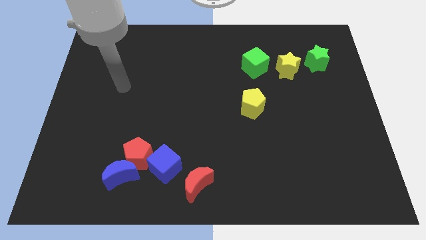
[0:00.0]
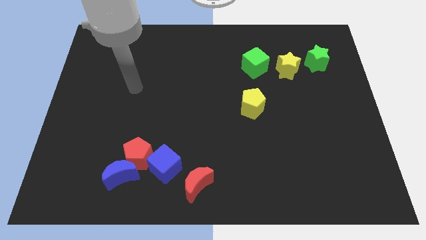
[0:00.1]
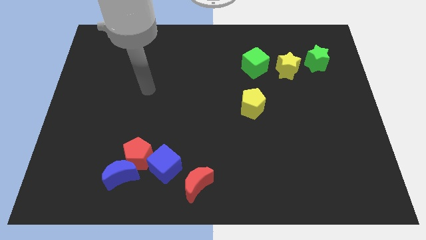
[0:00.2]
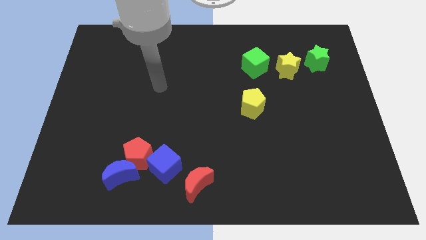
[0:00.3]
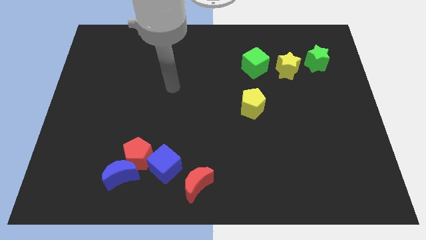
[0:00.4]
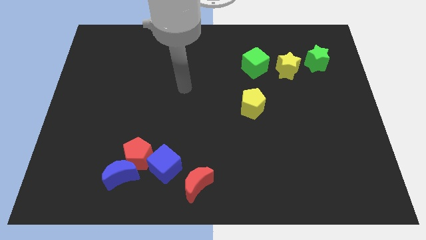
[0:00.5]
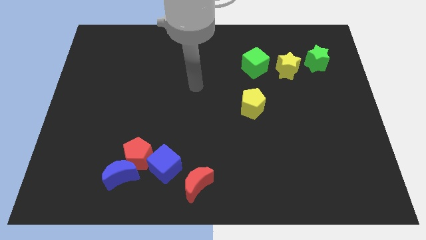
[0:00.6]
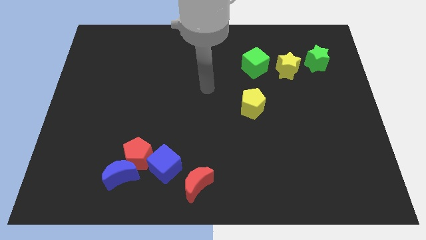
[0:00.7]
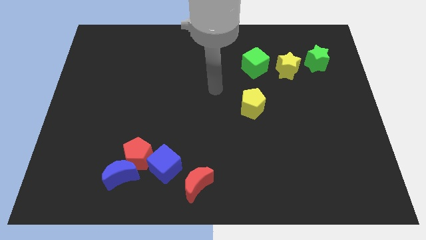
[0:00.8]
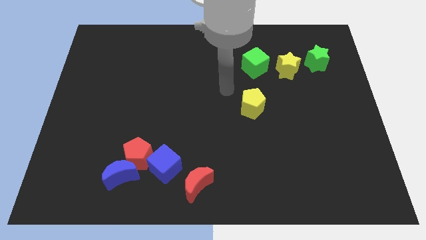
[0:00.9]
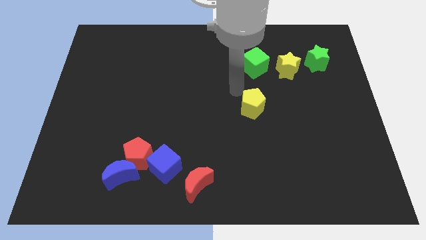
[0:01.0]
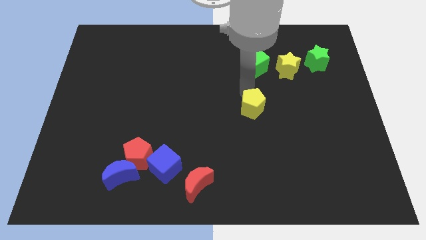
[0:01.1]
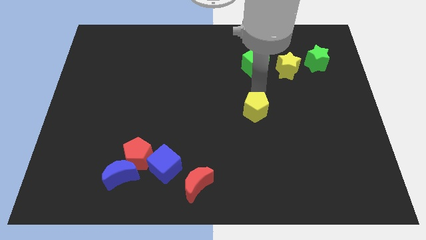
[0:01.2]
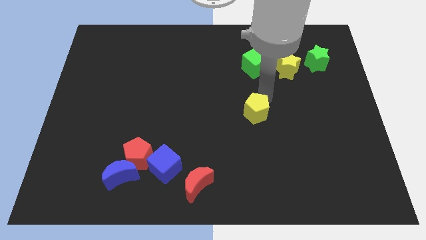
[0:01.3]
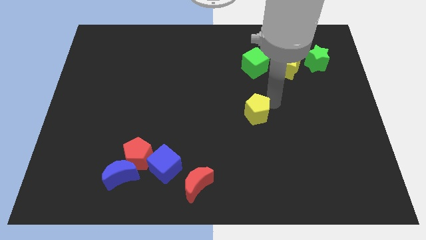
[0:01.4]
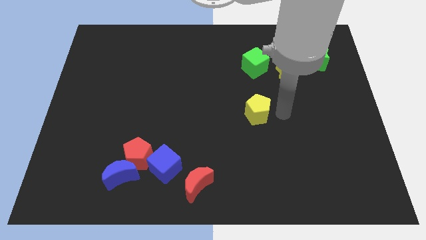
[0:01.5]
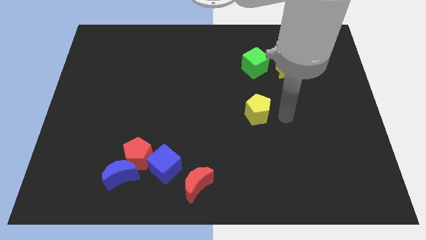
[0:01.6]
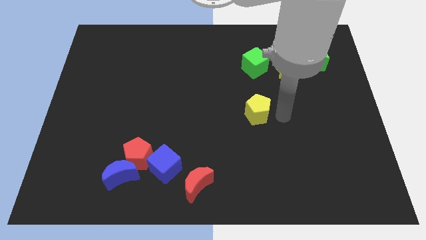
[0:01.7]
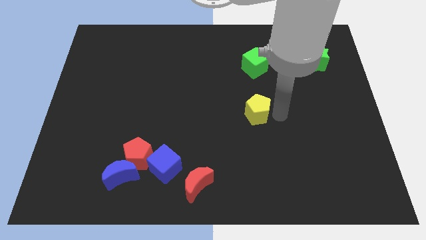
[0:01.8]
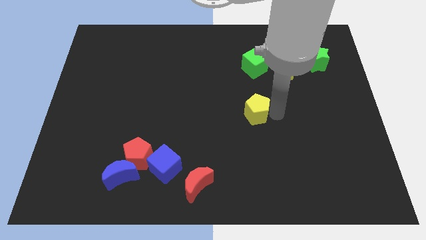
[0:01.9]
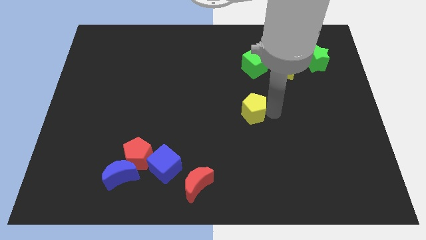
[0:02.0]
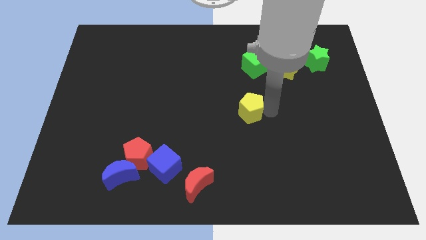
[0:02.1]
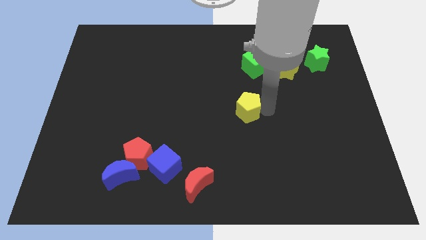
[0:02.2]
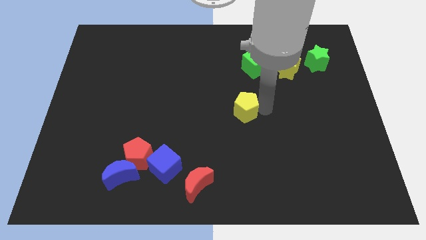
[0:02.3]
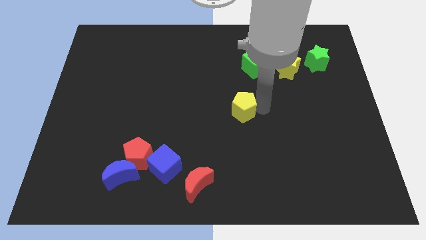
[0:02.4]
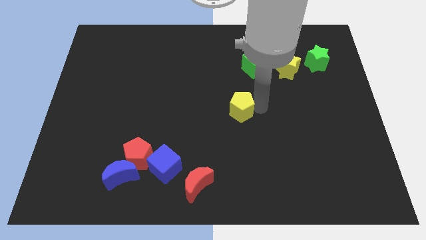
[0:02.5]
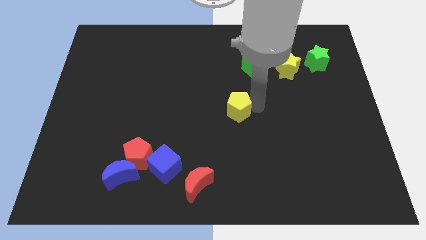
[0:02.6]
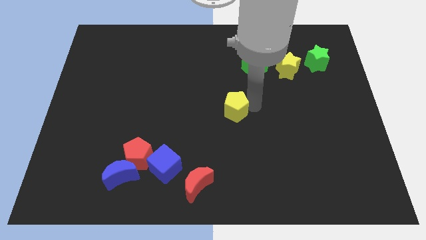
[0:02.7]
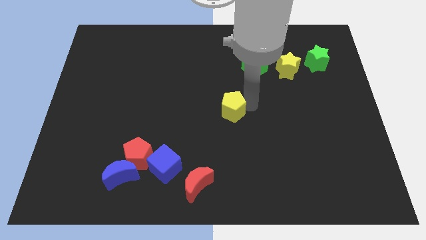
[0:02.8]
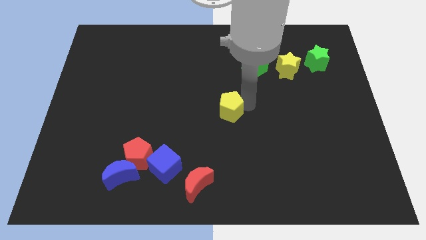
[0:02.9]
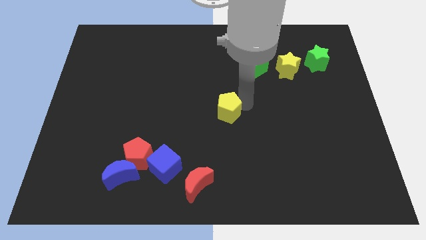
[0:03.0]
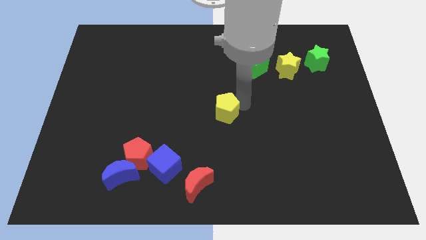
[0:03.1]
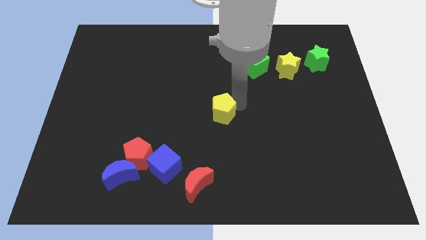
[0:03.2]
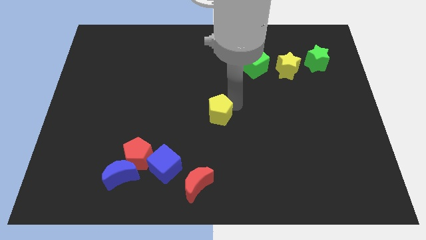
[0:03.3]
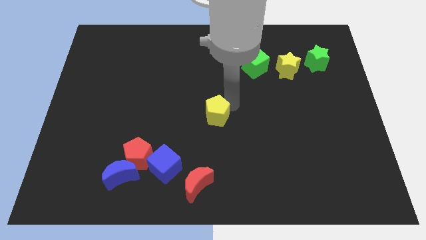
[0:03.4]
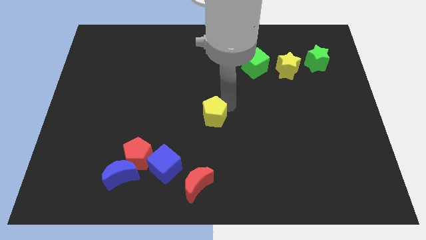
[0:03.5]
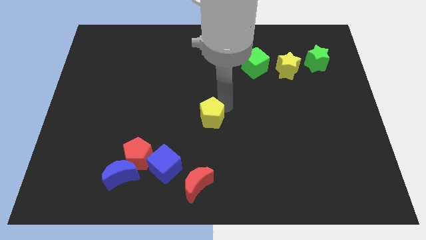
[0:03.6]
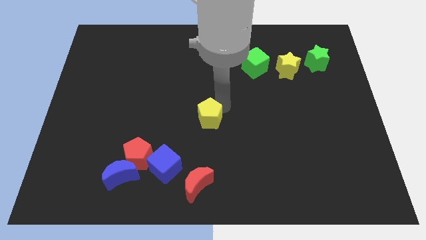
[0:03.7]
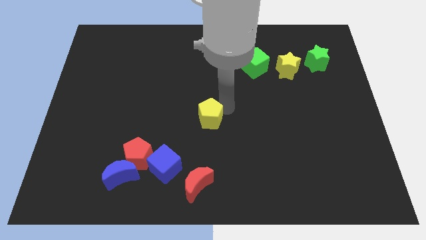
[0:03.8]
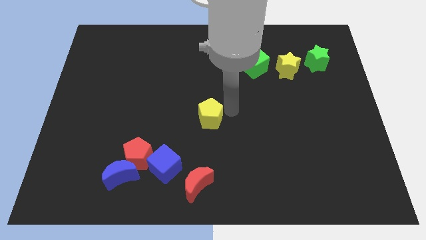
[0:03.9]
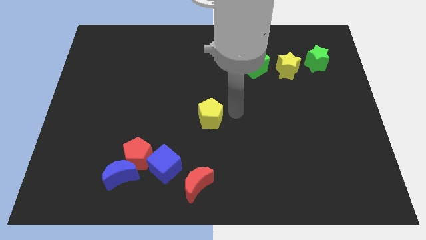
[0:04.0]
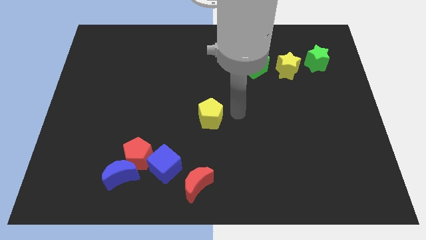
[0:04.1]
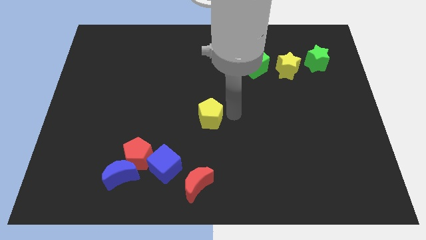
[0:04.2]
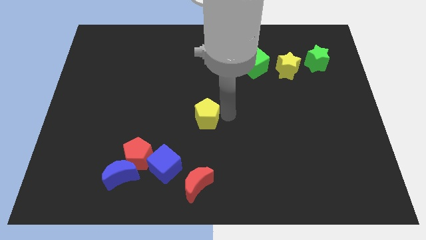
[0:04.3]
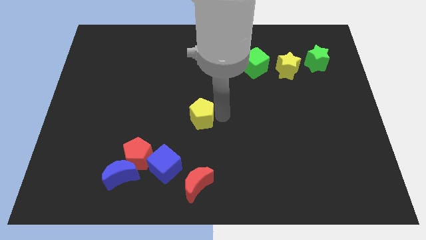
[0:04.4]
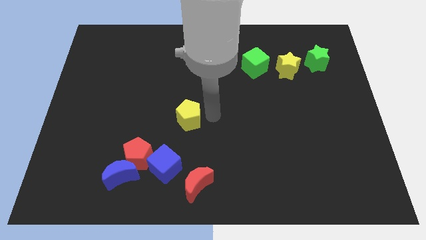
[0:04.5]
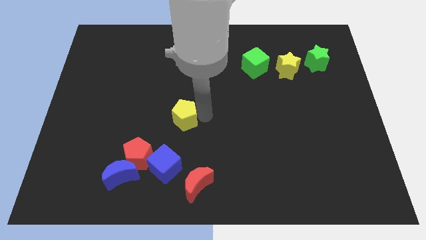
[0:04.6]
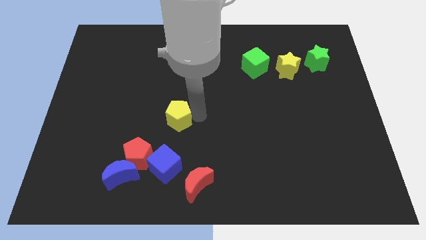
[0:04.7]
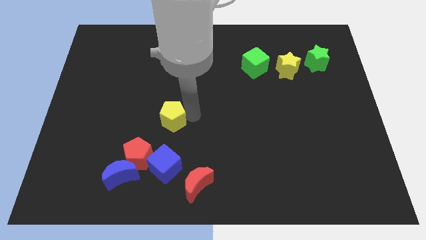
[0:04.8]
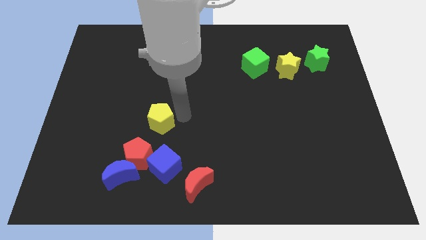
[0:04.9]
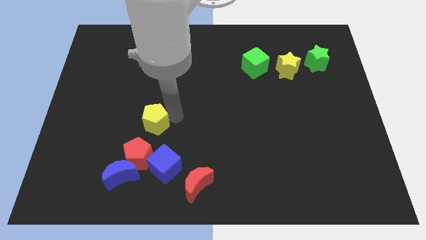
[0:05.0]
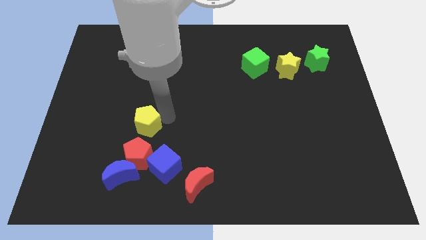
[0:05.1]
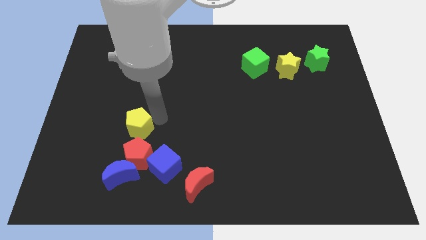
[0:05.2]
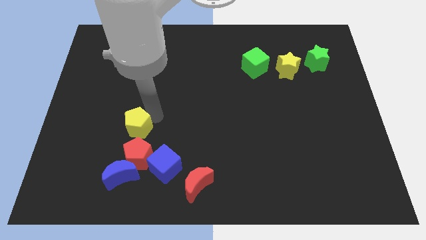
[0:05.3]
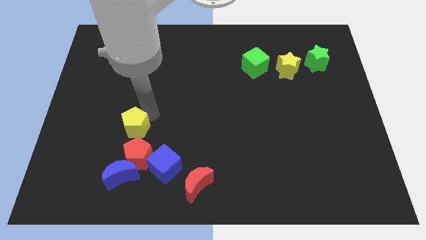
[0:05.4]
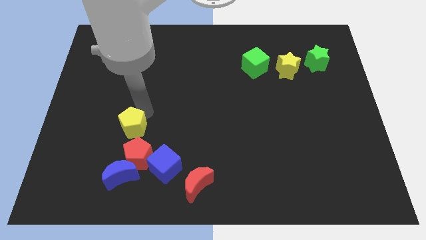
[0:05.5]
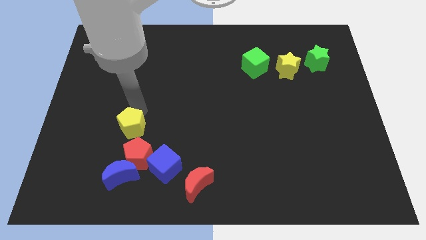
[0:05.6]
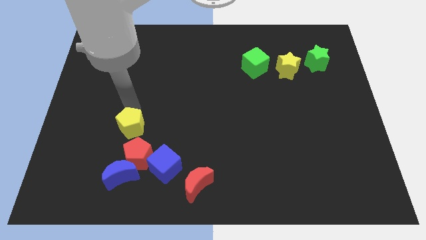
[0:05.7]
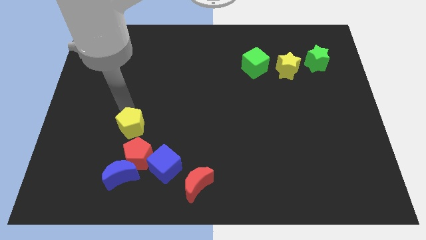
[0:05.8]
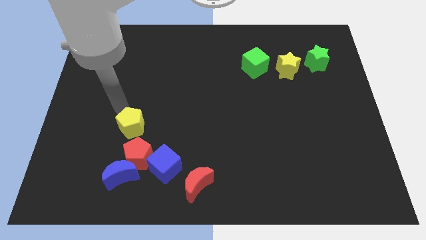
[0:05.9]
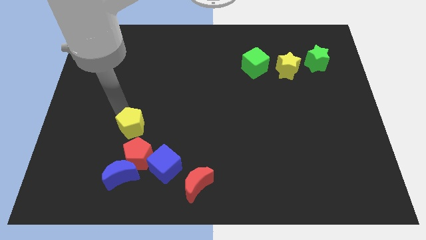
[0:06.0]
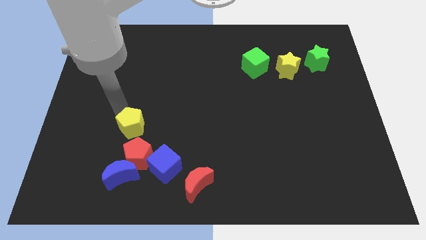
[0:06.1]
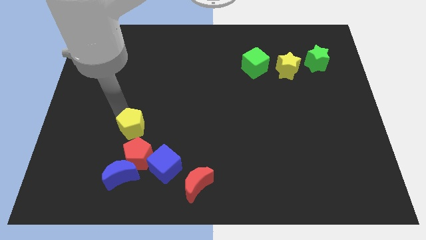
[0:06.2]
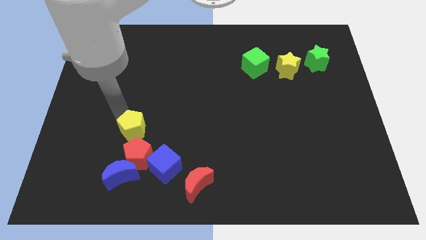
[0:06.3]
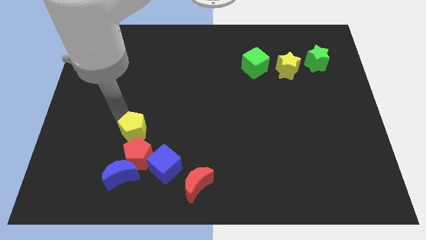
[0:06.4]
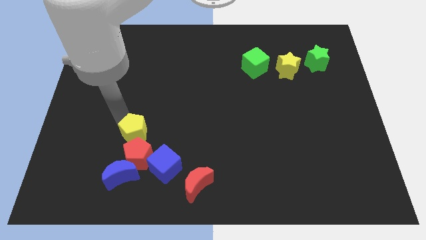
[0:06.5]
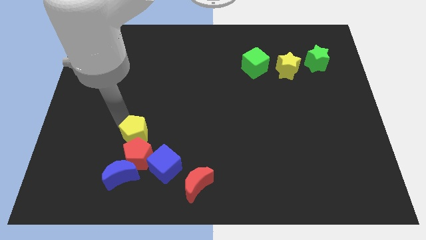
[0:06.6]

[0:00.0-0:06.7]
move the yellow pentagon to the red pentagon
